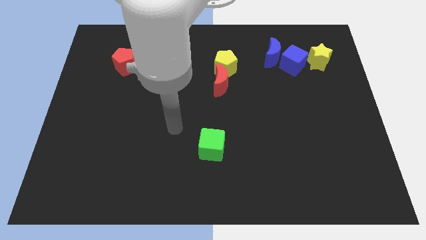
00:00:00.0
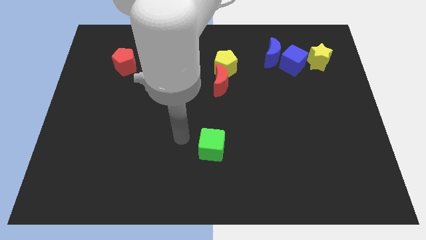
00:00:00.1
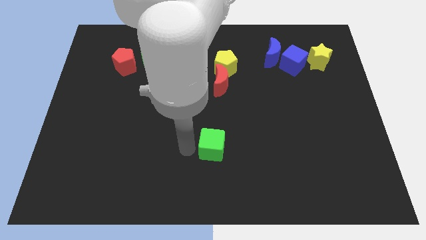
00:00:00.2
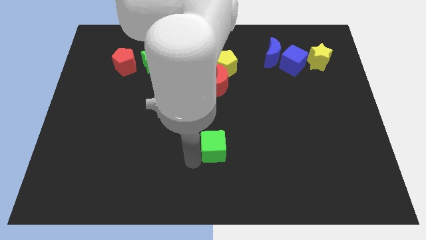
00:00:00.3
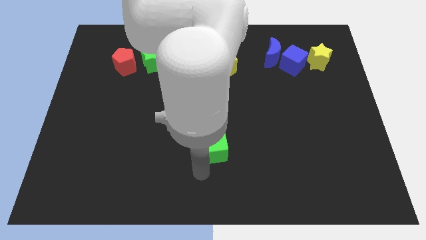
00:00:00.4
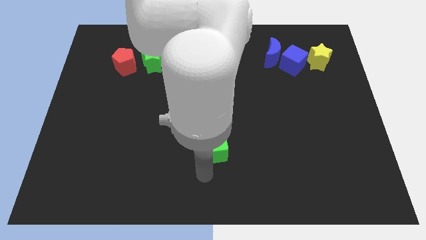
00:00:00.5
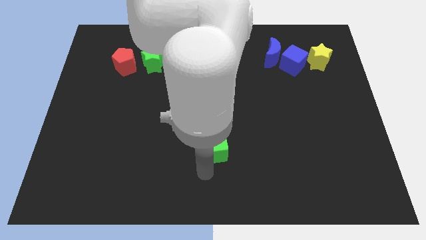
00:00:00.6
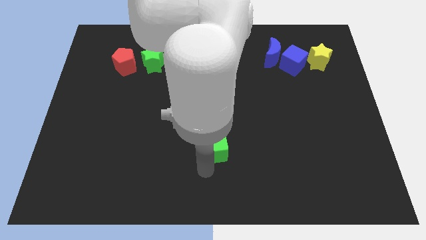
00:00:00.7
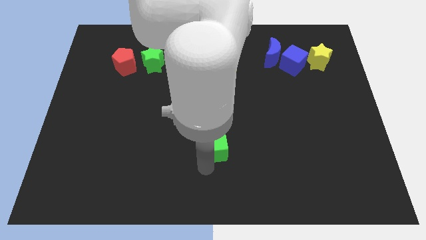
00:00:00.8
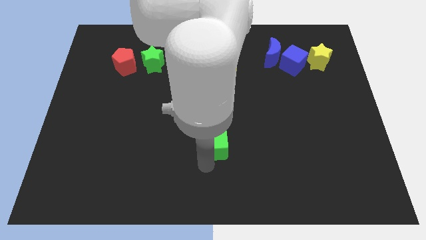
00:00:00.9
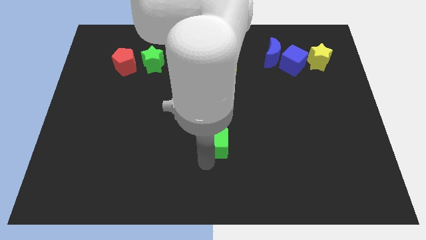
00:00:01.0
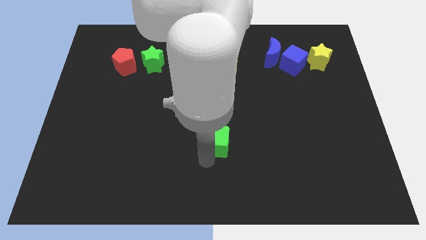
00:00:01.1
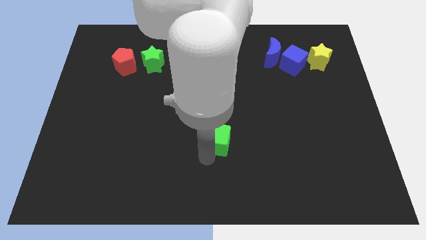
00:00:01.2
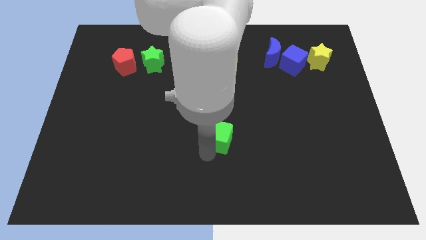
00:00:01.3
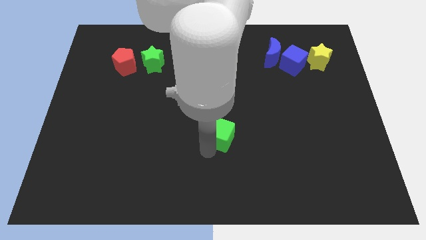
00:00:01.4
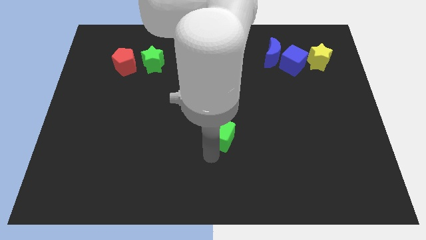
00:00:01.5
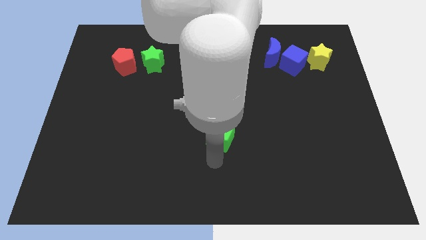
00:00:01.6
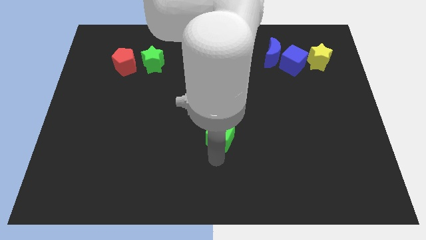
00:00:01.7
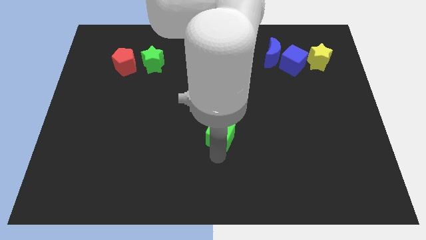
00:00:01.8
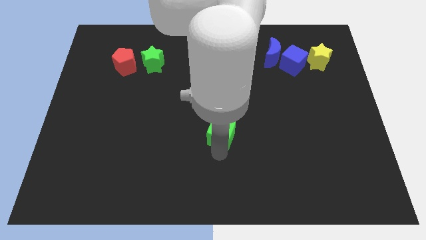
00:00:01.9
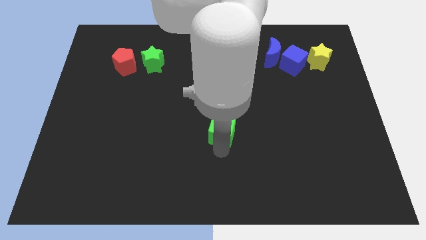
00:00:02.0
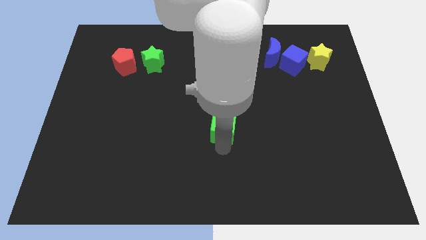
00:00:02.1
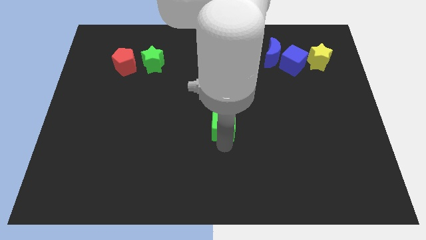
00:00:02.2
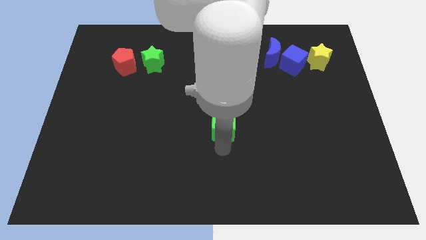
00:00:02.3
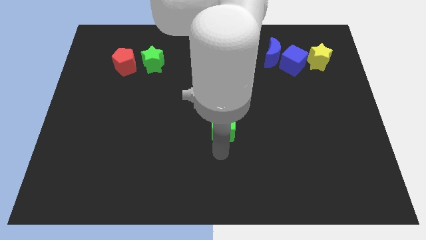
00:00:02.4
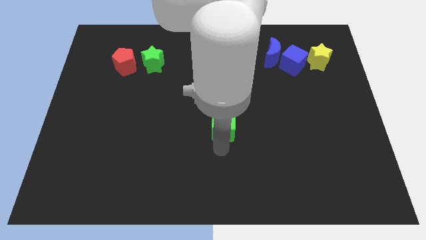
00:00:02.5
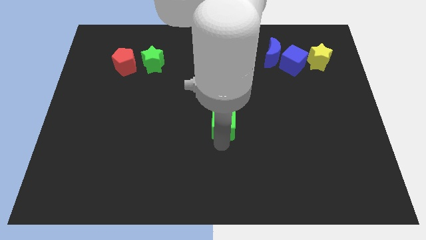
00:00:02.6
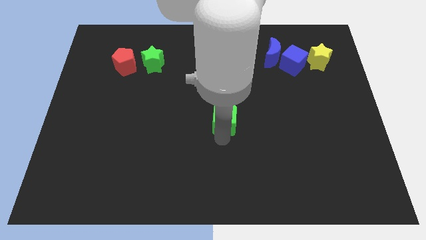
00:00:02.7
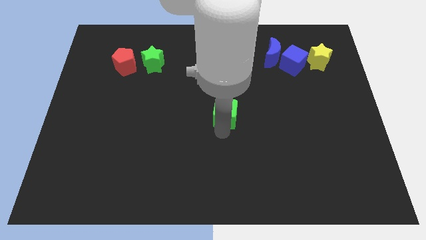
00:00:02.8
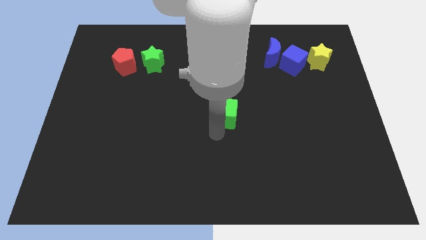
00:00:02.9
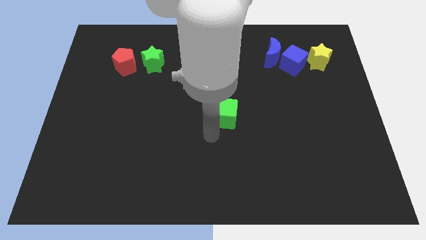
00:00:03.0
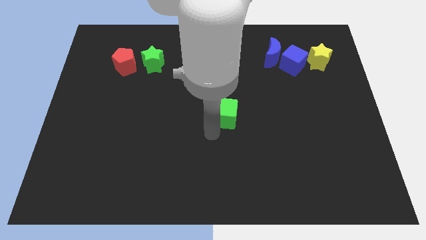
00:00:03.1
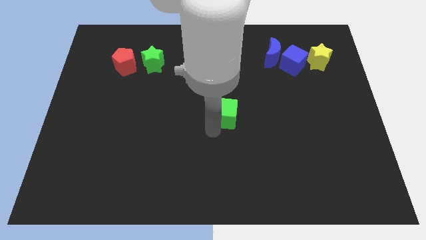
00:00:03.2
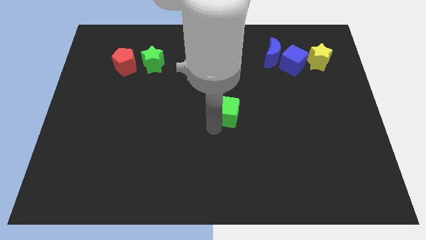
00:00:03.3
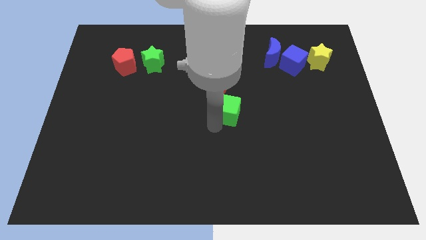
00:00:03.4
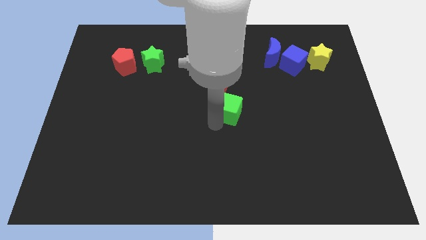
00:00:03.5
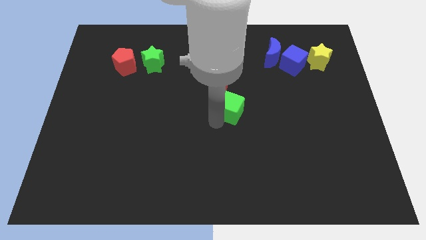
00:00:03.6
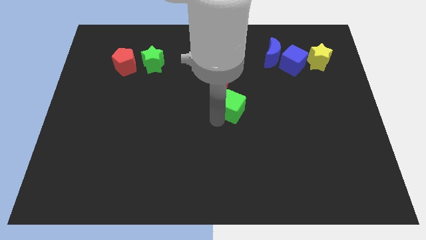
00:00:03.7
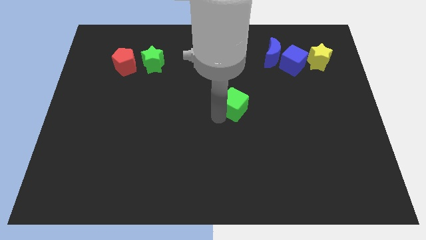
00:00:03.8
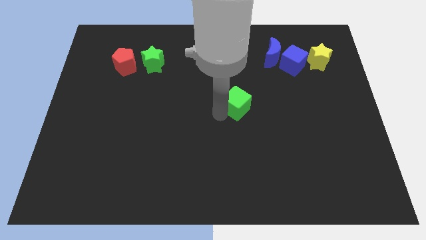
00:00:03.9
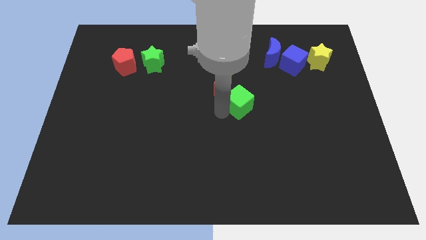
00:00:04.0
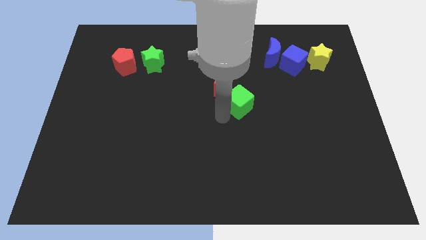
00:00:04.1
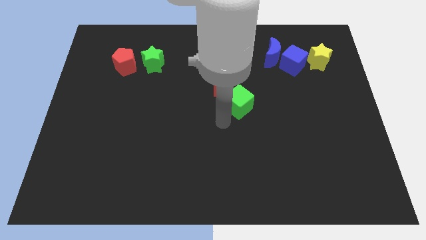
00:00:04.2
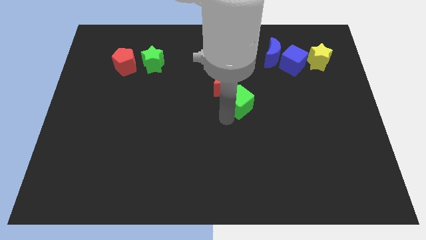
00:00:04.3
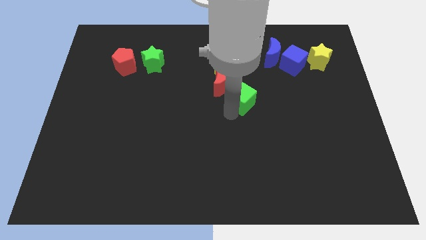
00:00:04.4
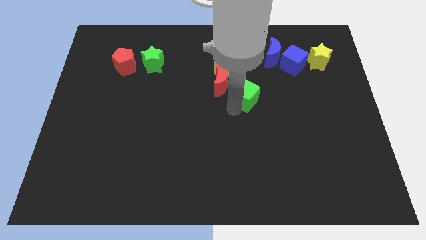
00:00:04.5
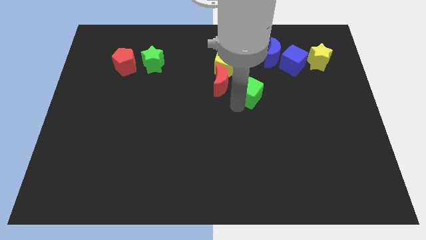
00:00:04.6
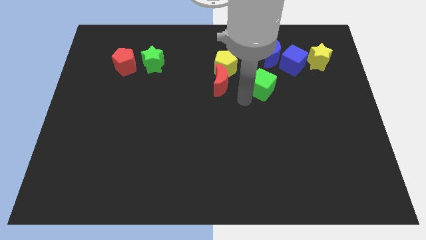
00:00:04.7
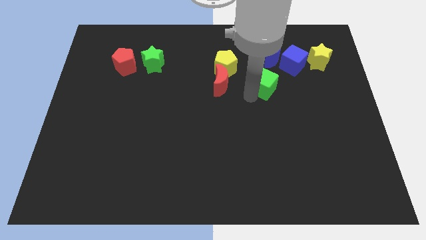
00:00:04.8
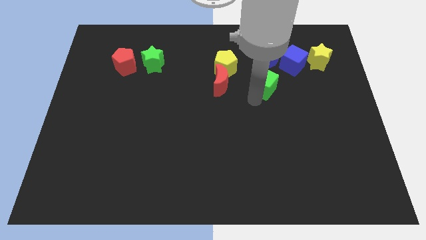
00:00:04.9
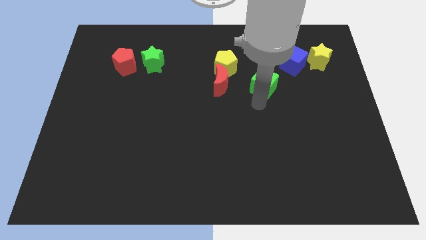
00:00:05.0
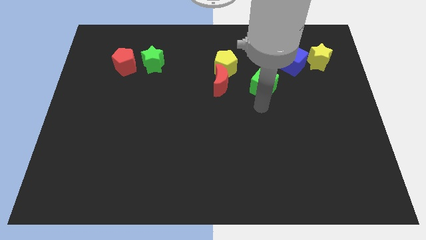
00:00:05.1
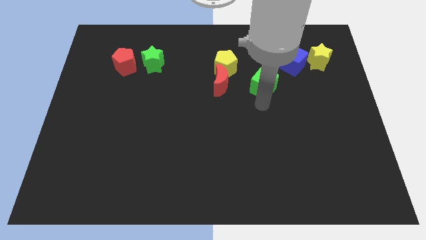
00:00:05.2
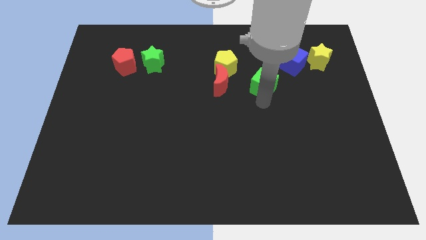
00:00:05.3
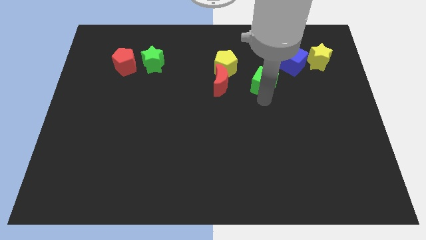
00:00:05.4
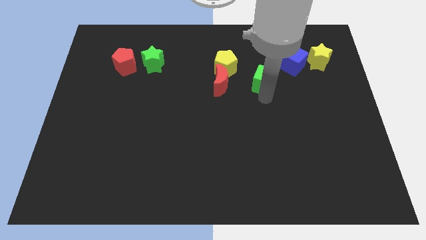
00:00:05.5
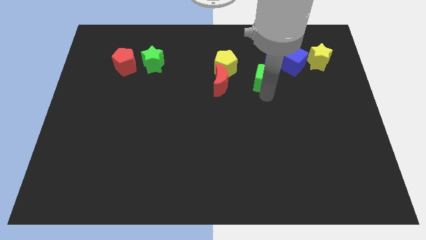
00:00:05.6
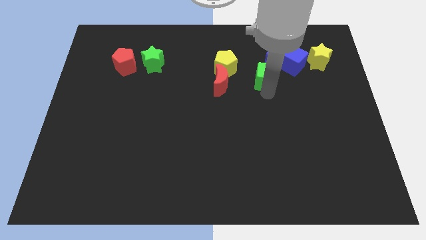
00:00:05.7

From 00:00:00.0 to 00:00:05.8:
put the green cube right of the yellow pentagon

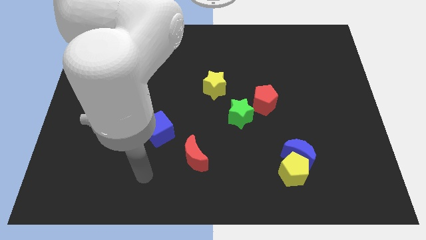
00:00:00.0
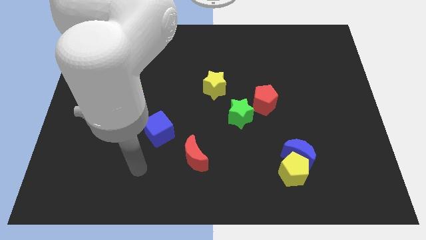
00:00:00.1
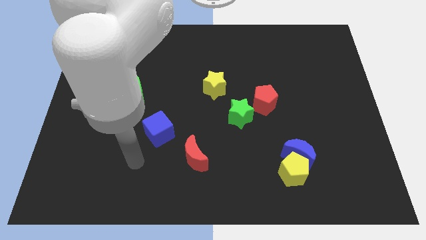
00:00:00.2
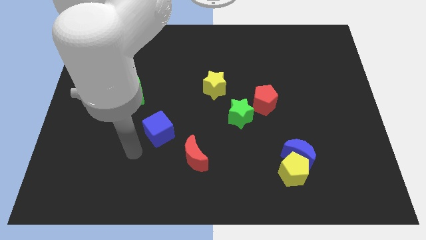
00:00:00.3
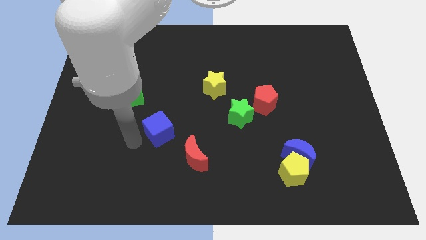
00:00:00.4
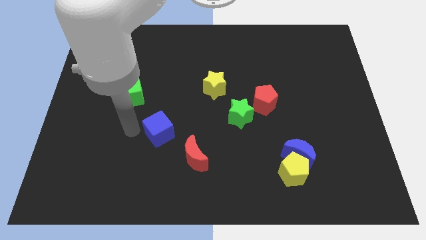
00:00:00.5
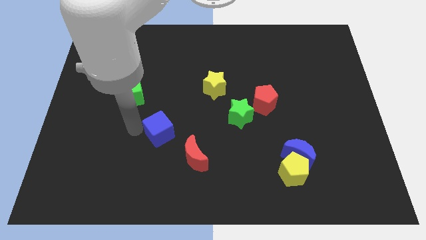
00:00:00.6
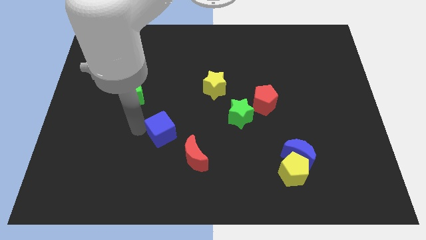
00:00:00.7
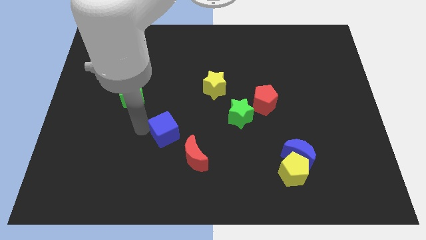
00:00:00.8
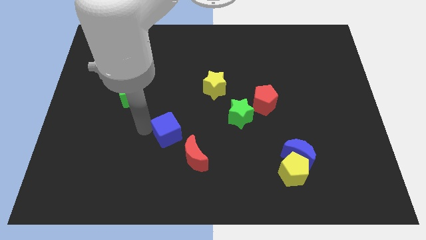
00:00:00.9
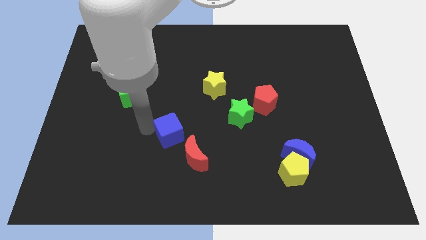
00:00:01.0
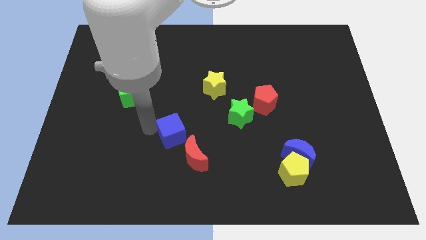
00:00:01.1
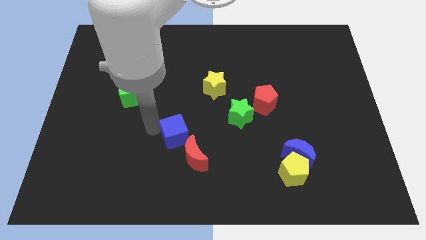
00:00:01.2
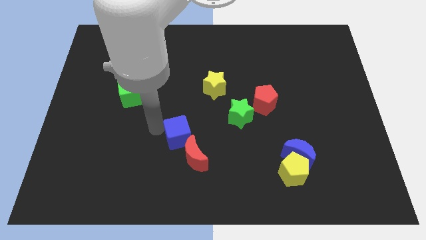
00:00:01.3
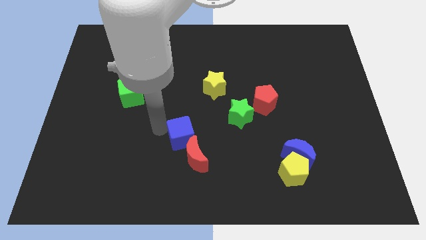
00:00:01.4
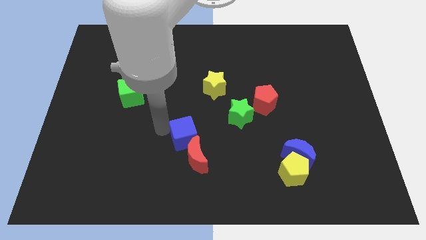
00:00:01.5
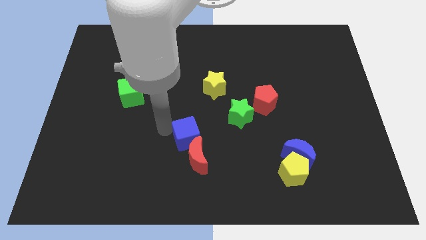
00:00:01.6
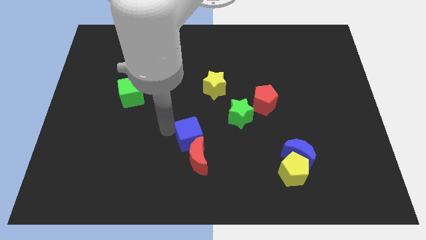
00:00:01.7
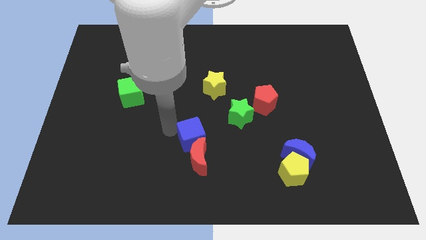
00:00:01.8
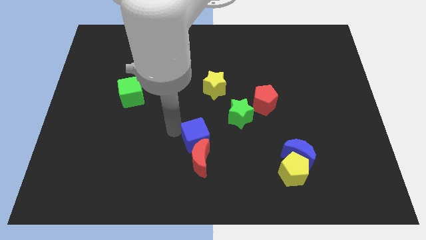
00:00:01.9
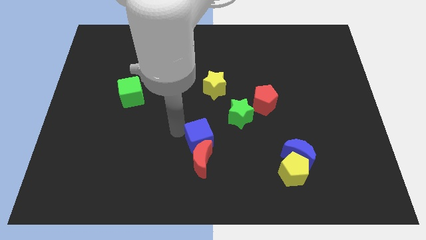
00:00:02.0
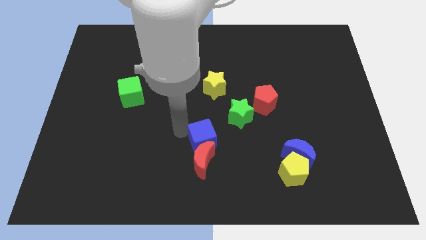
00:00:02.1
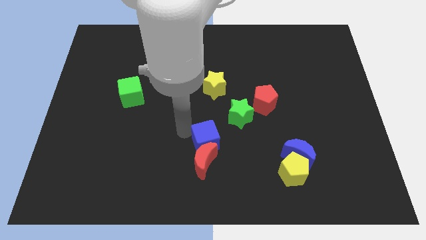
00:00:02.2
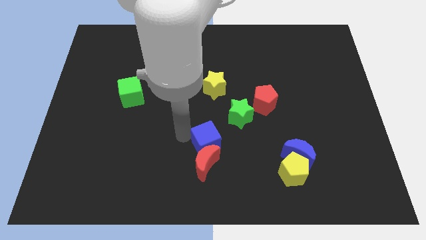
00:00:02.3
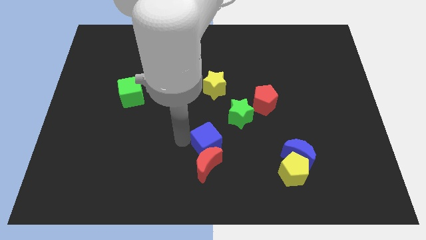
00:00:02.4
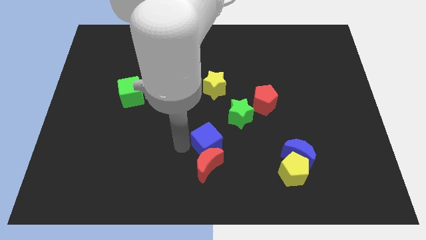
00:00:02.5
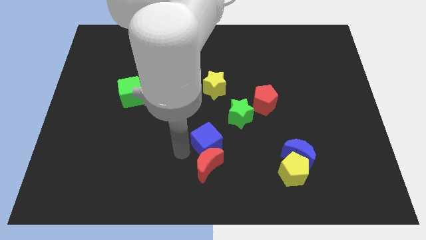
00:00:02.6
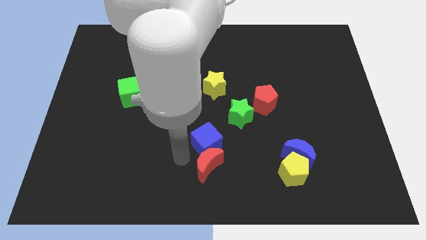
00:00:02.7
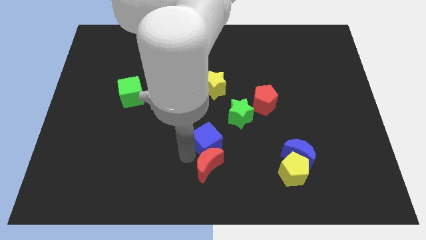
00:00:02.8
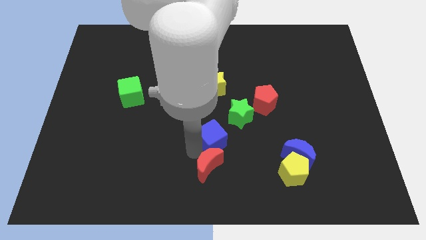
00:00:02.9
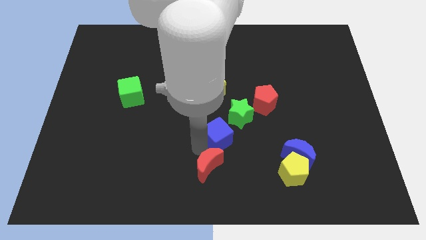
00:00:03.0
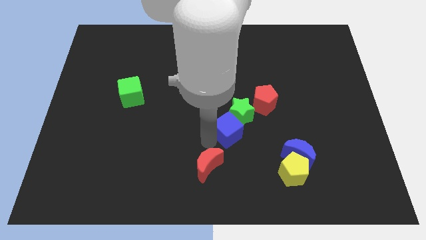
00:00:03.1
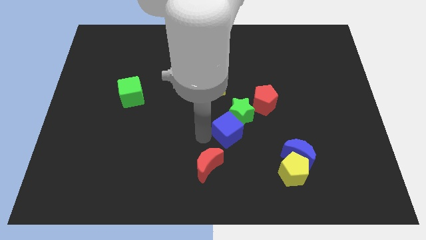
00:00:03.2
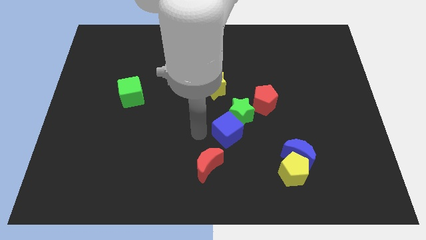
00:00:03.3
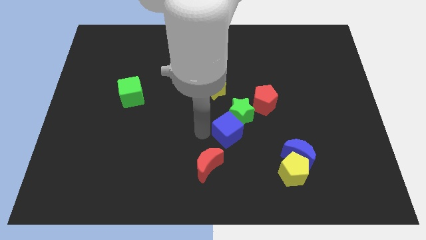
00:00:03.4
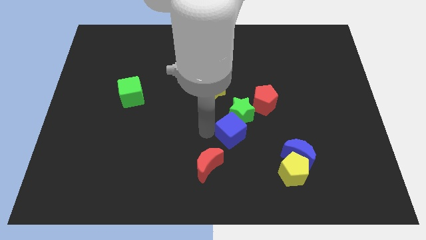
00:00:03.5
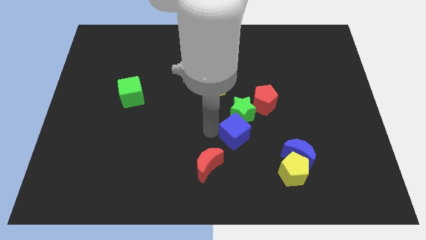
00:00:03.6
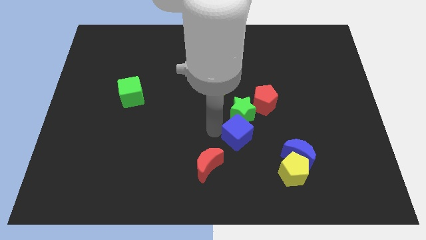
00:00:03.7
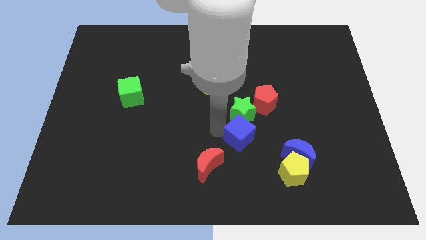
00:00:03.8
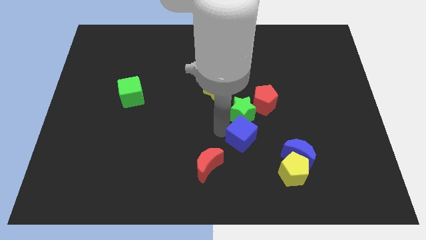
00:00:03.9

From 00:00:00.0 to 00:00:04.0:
put the blue cube diagonally down and to the right of the green star
